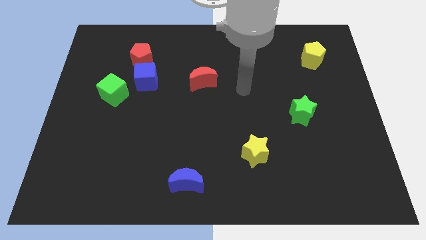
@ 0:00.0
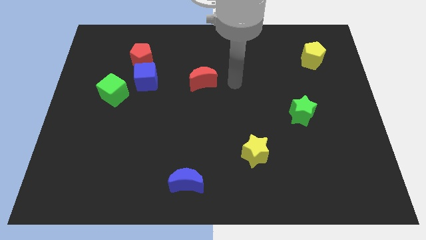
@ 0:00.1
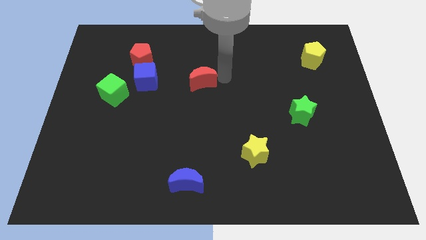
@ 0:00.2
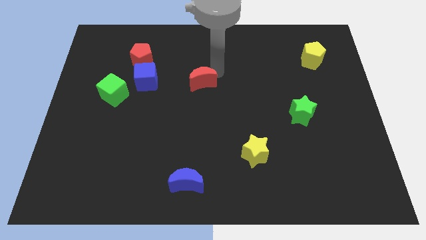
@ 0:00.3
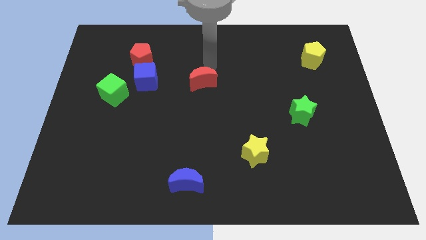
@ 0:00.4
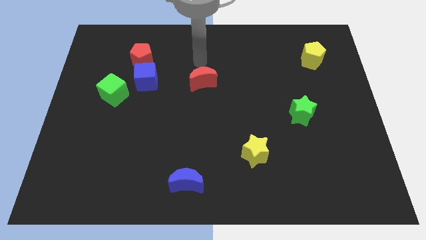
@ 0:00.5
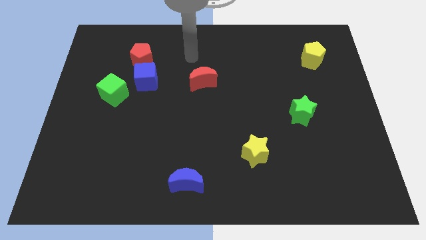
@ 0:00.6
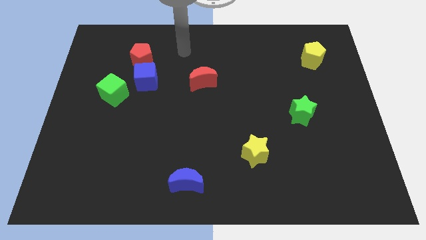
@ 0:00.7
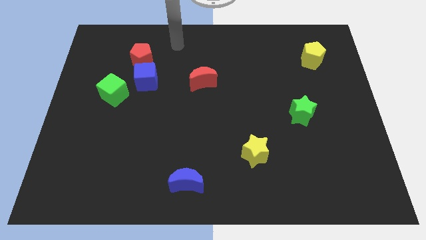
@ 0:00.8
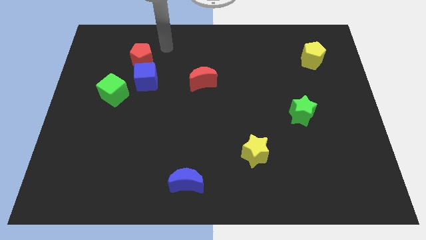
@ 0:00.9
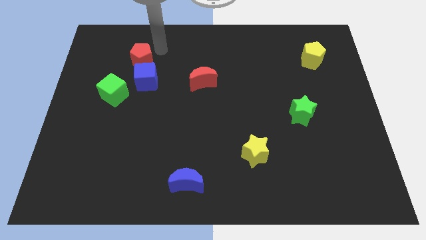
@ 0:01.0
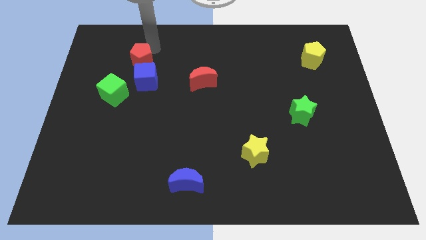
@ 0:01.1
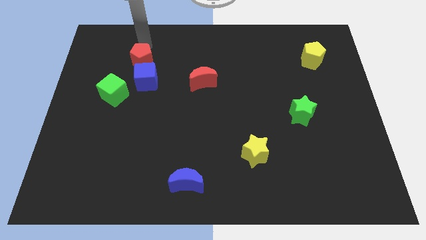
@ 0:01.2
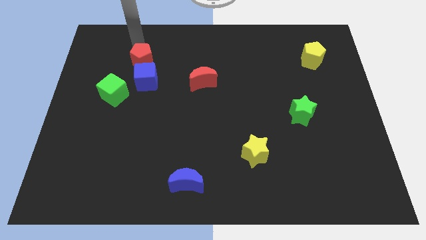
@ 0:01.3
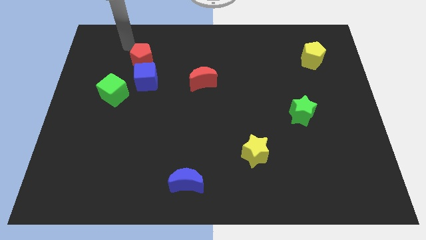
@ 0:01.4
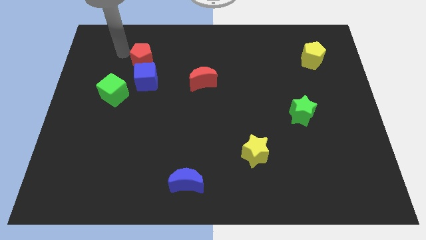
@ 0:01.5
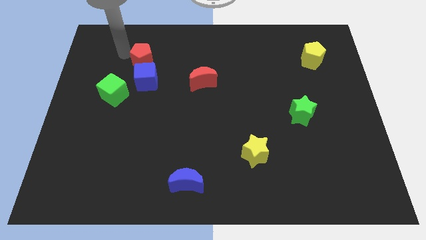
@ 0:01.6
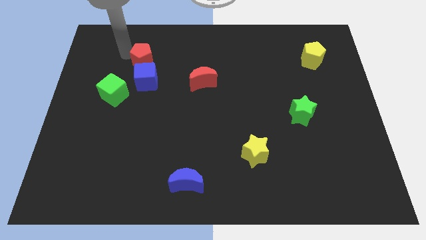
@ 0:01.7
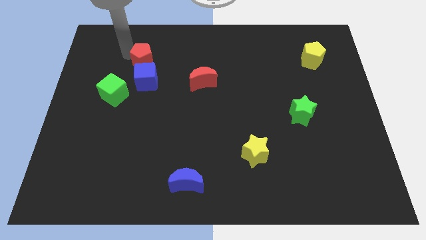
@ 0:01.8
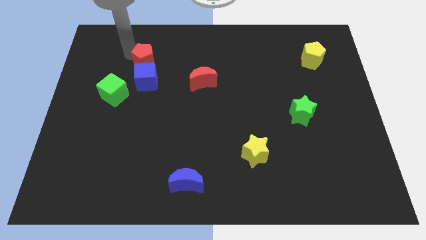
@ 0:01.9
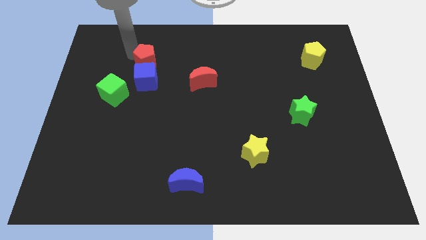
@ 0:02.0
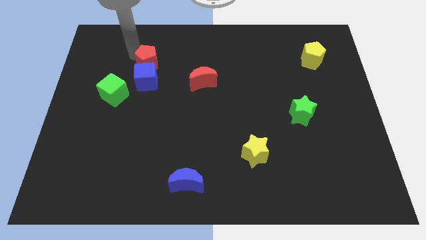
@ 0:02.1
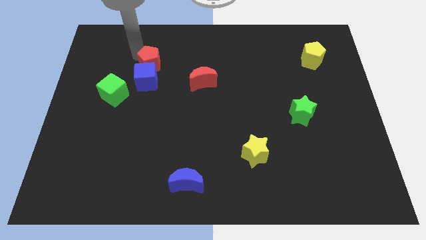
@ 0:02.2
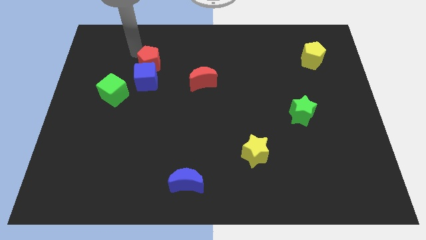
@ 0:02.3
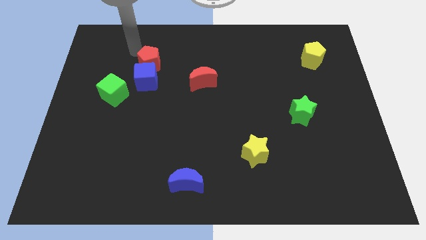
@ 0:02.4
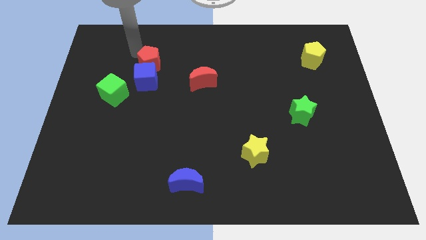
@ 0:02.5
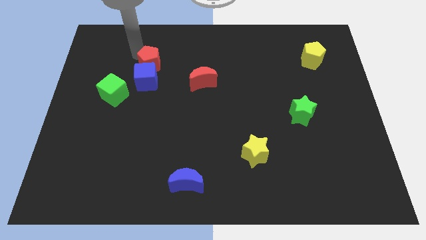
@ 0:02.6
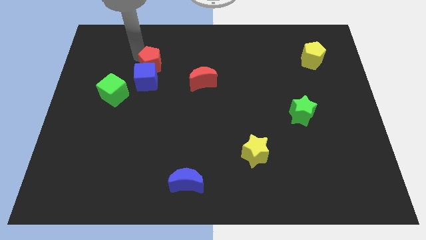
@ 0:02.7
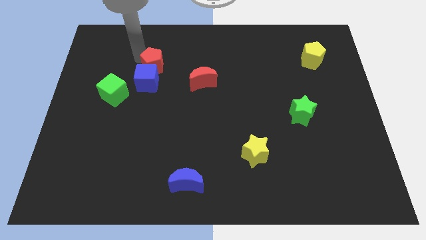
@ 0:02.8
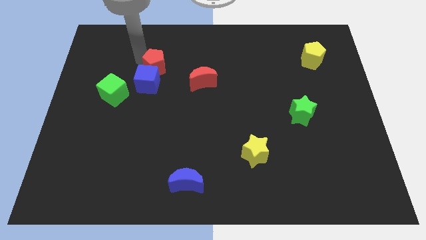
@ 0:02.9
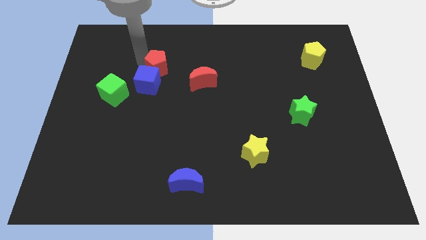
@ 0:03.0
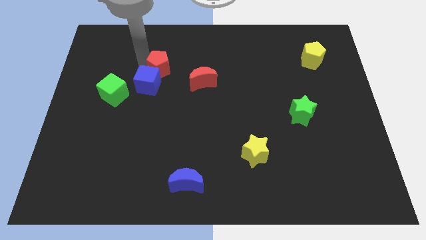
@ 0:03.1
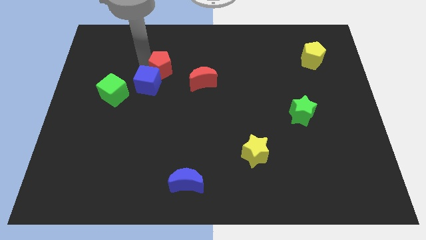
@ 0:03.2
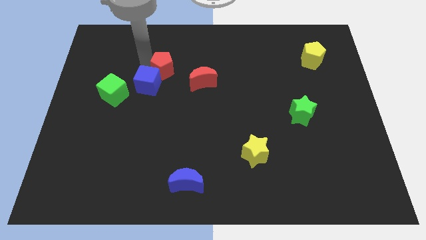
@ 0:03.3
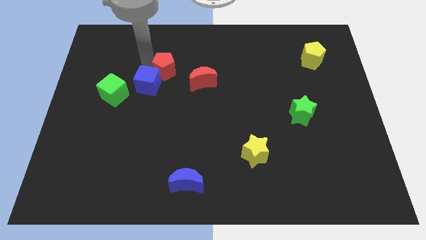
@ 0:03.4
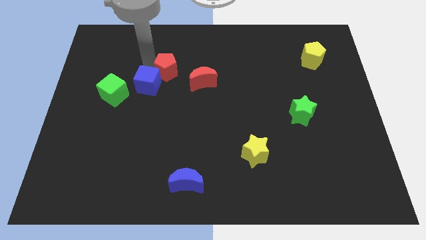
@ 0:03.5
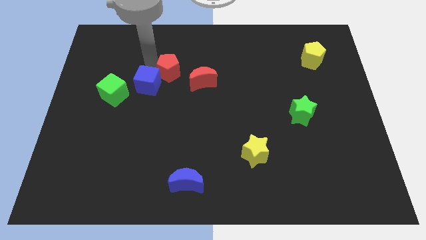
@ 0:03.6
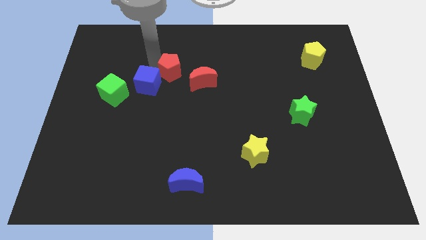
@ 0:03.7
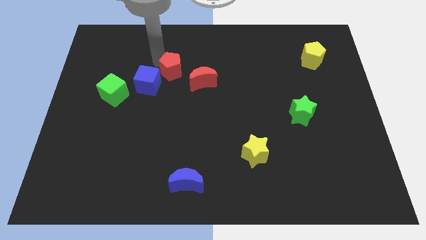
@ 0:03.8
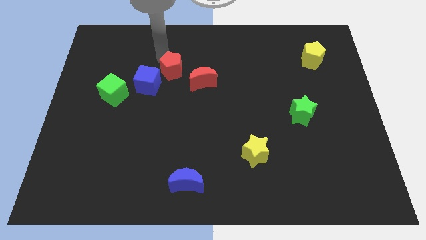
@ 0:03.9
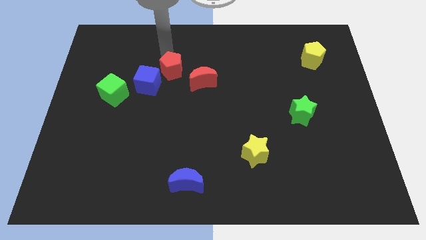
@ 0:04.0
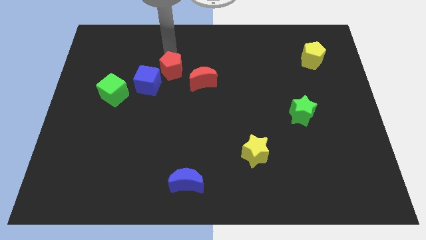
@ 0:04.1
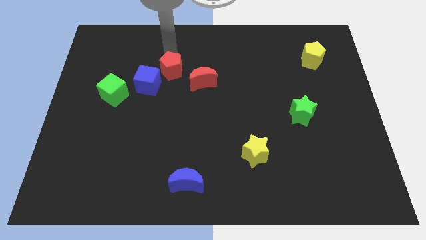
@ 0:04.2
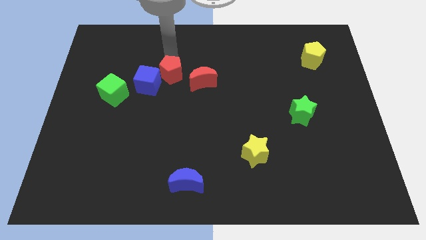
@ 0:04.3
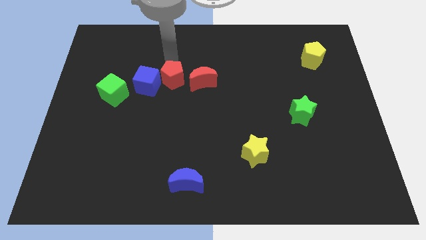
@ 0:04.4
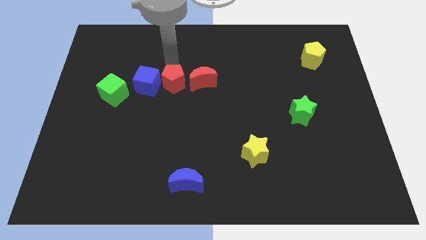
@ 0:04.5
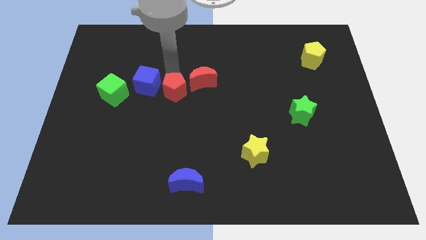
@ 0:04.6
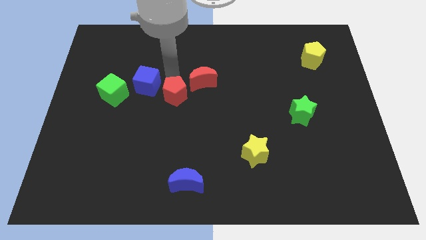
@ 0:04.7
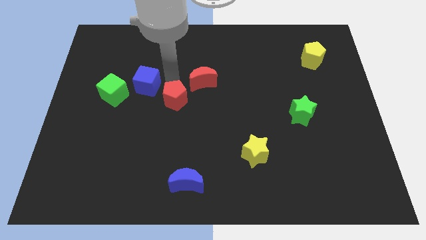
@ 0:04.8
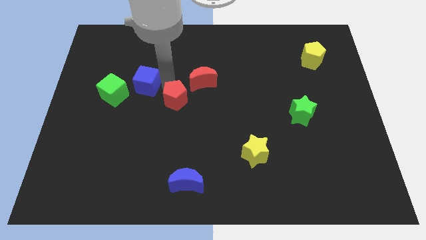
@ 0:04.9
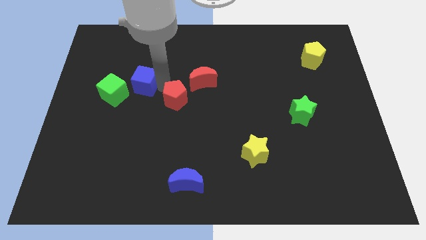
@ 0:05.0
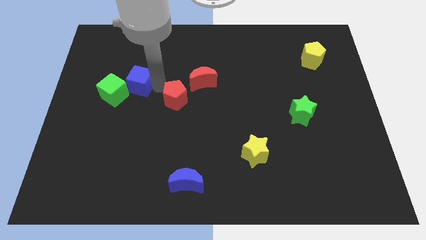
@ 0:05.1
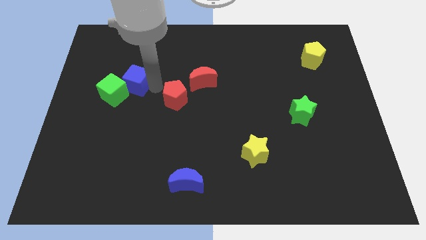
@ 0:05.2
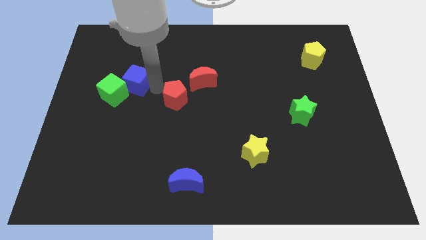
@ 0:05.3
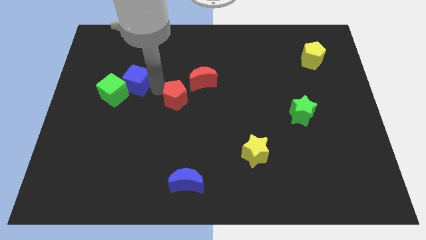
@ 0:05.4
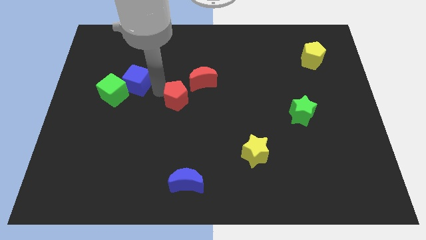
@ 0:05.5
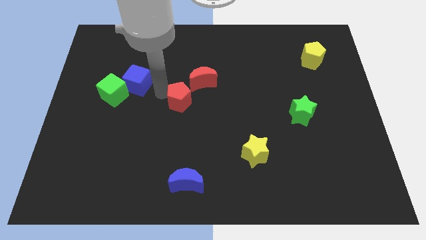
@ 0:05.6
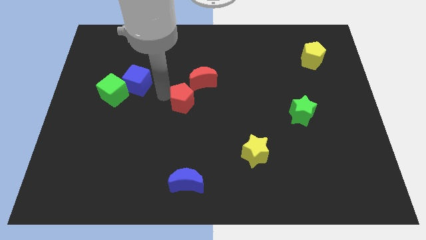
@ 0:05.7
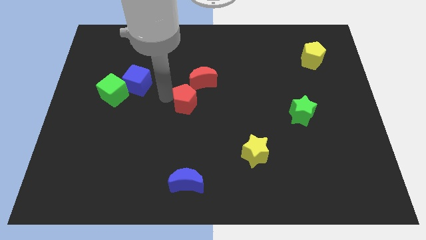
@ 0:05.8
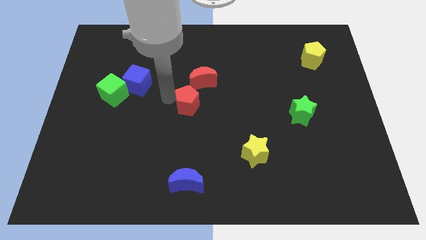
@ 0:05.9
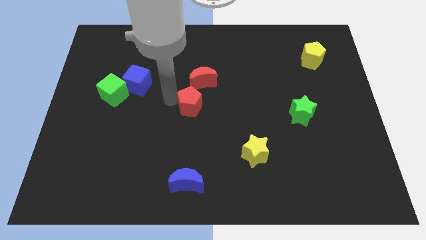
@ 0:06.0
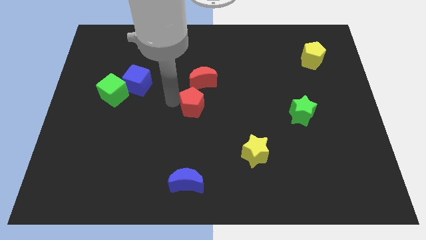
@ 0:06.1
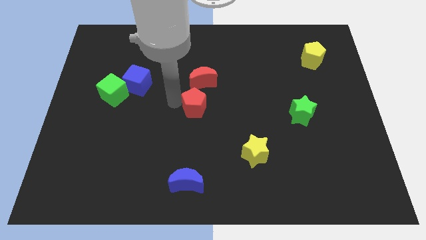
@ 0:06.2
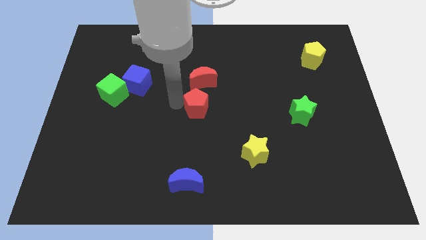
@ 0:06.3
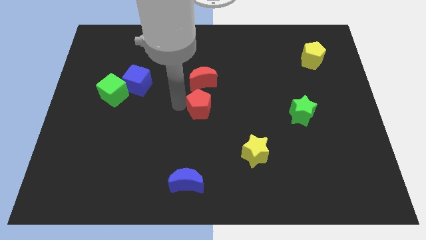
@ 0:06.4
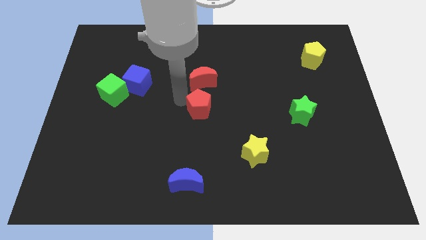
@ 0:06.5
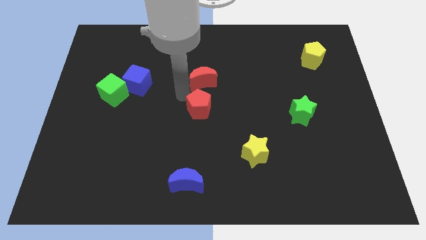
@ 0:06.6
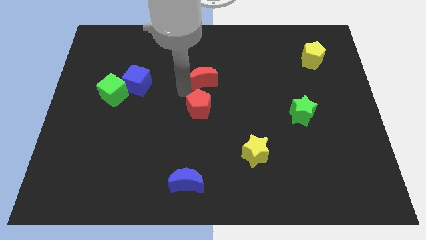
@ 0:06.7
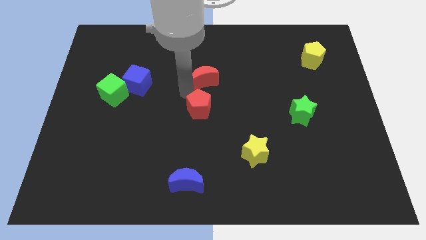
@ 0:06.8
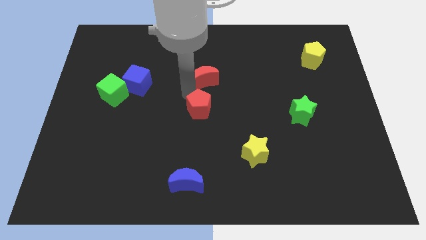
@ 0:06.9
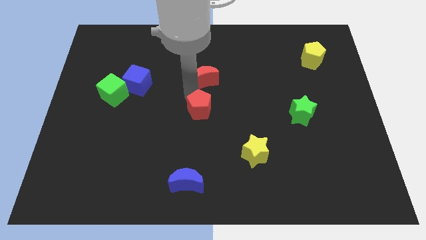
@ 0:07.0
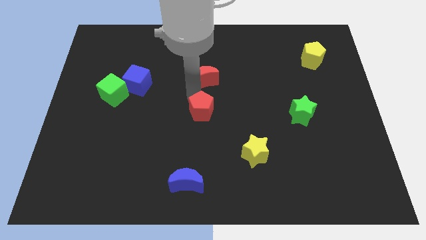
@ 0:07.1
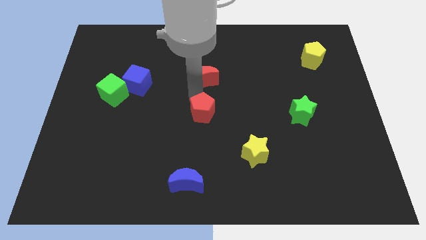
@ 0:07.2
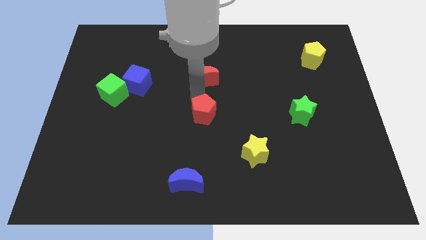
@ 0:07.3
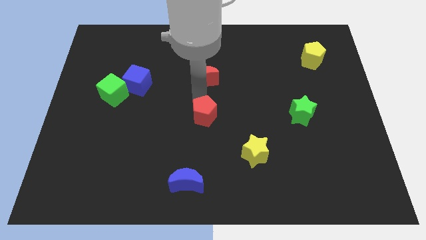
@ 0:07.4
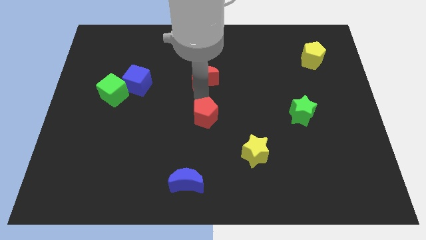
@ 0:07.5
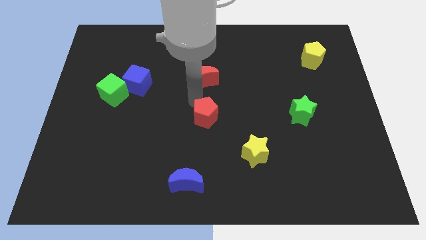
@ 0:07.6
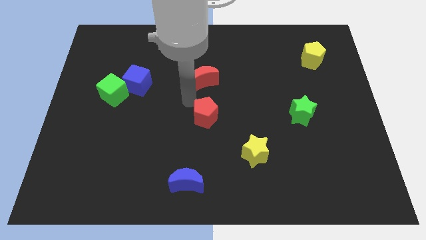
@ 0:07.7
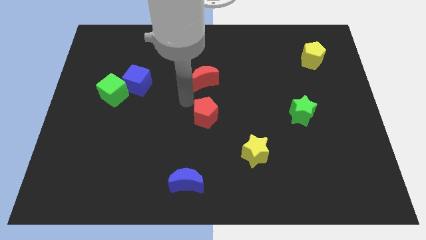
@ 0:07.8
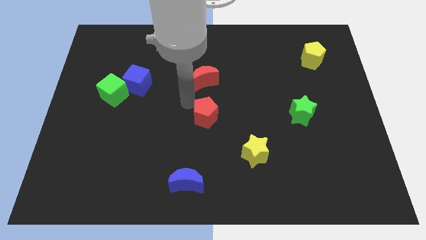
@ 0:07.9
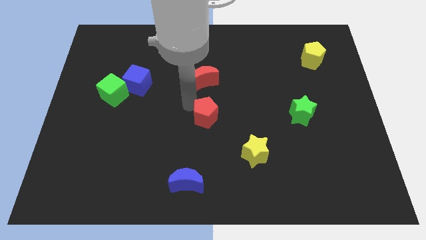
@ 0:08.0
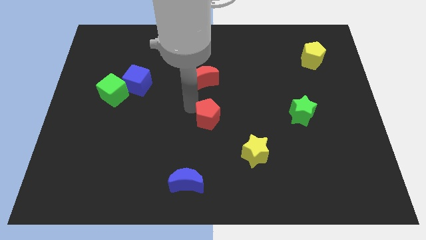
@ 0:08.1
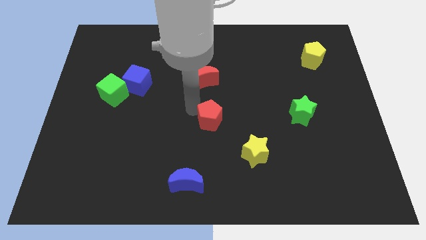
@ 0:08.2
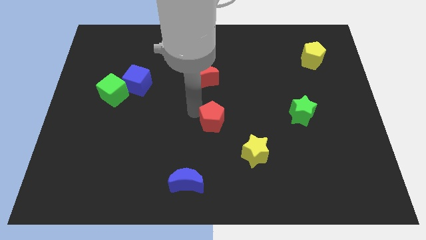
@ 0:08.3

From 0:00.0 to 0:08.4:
push the red pentagon to the top left side of the yellow star
